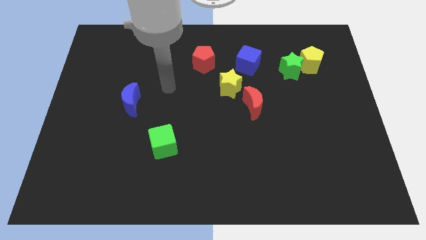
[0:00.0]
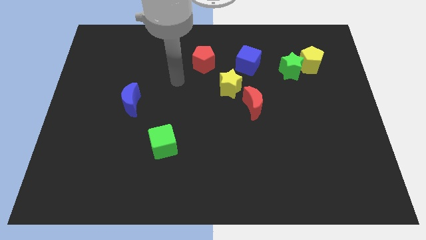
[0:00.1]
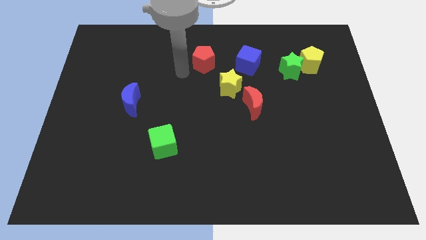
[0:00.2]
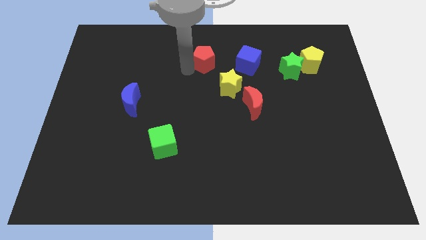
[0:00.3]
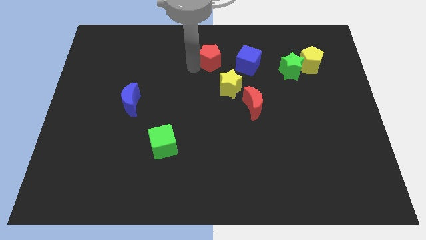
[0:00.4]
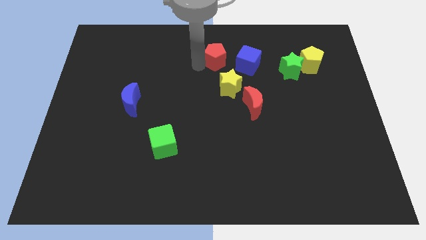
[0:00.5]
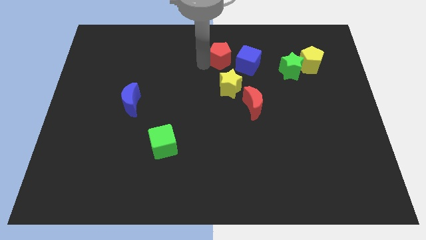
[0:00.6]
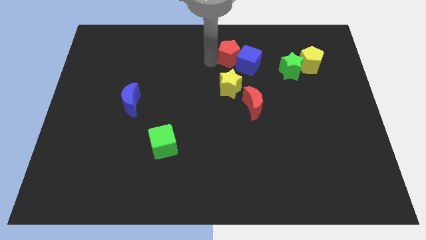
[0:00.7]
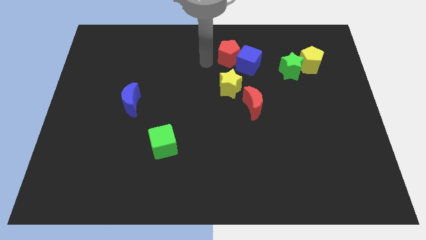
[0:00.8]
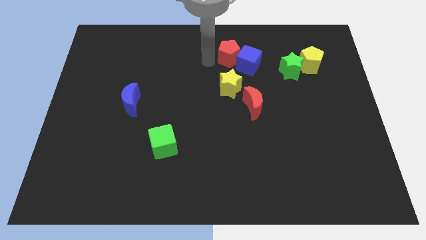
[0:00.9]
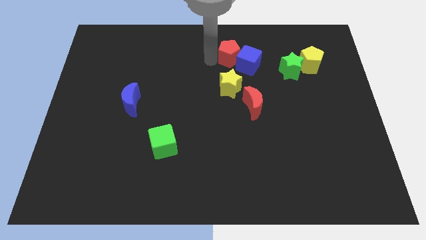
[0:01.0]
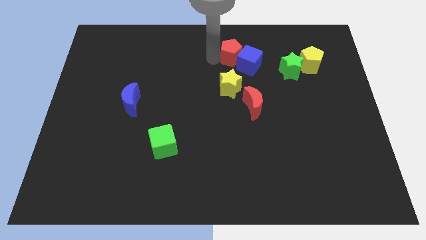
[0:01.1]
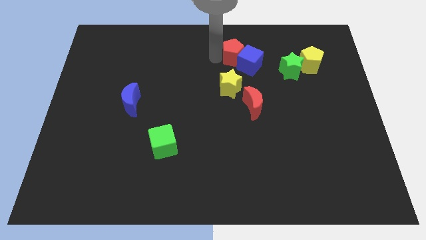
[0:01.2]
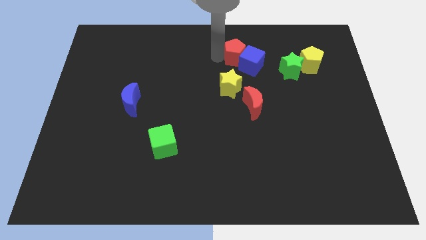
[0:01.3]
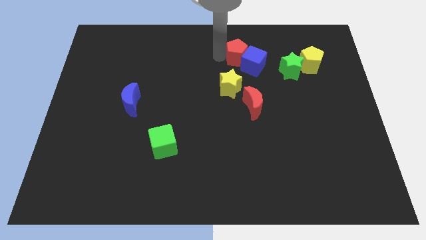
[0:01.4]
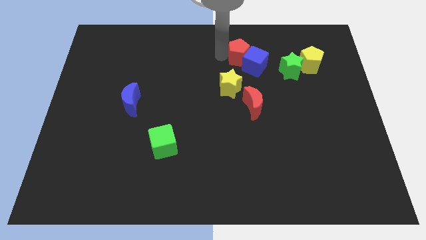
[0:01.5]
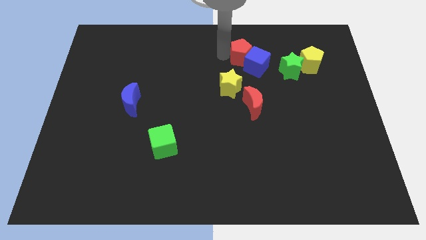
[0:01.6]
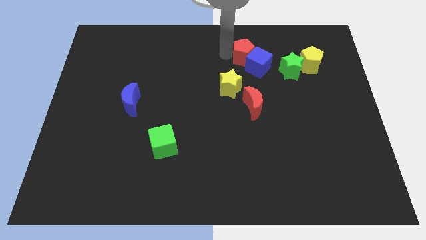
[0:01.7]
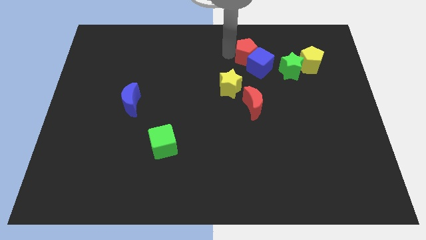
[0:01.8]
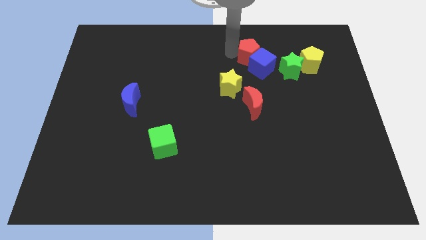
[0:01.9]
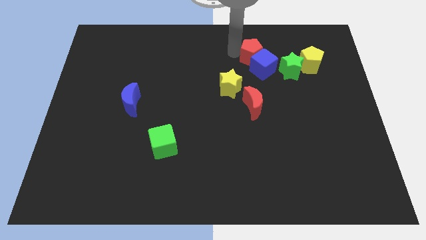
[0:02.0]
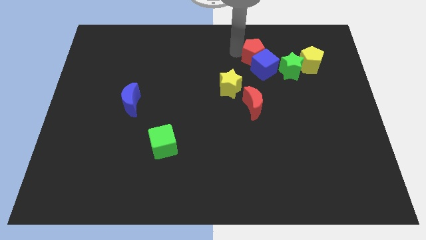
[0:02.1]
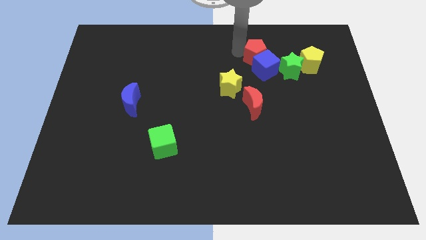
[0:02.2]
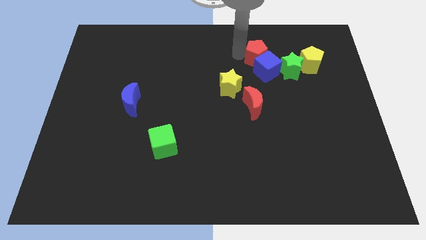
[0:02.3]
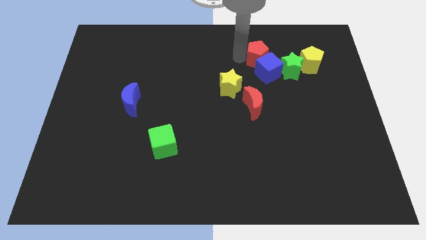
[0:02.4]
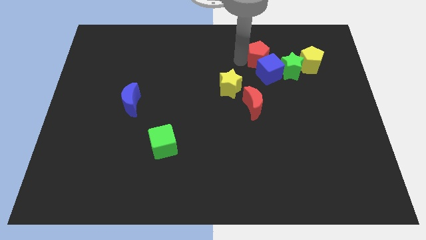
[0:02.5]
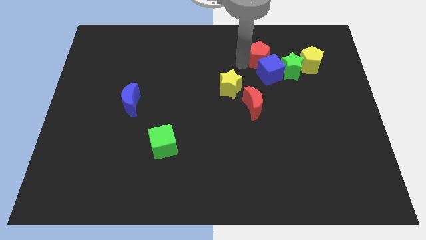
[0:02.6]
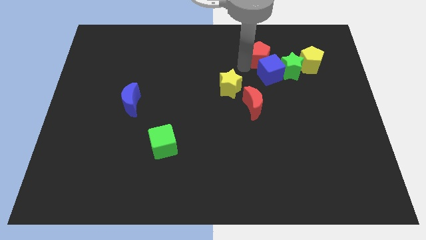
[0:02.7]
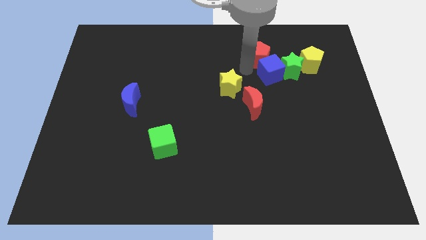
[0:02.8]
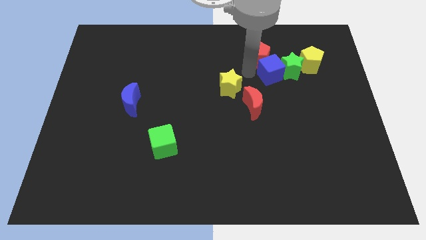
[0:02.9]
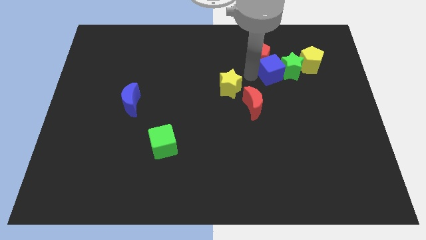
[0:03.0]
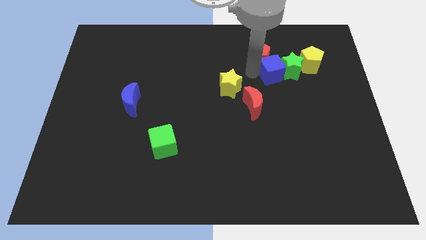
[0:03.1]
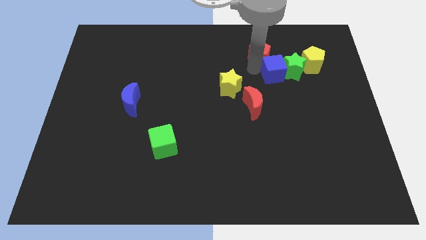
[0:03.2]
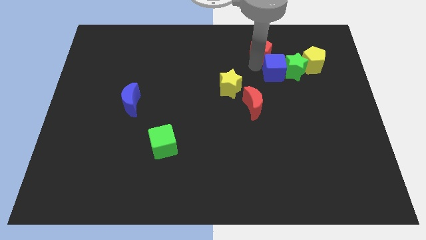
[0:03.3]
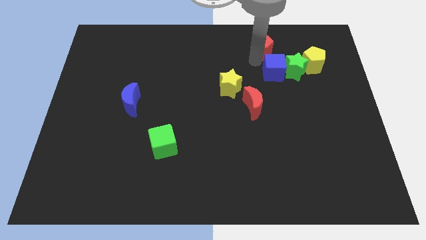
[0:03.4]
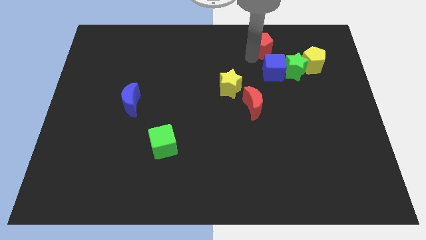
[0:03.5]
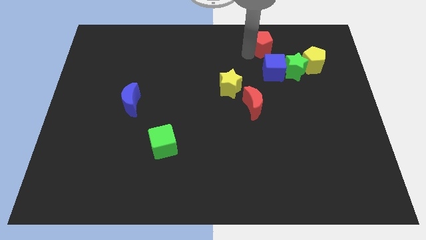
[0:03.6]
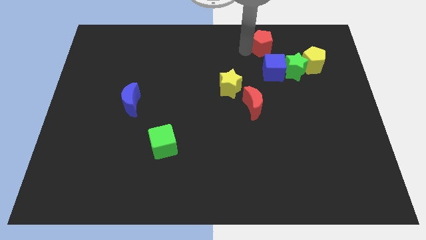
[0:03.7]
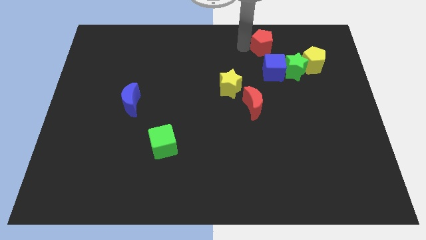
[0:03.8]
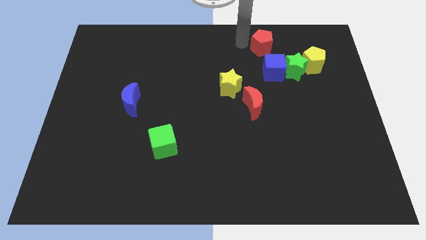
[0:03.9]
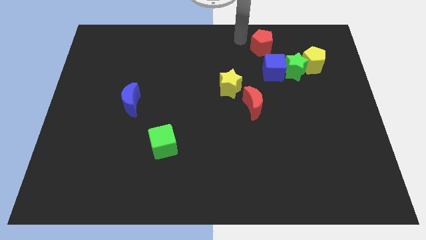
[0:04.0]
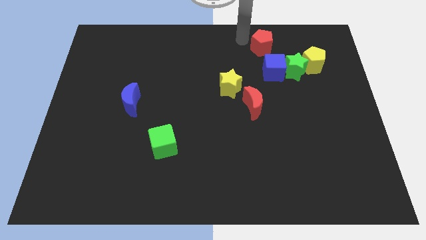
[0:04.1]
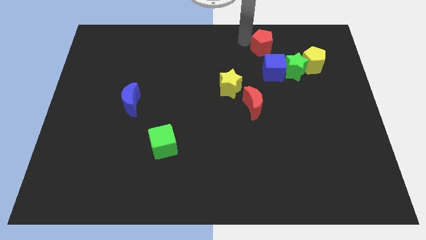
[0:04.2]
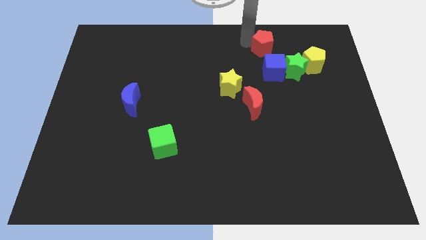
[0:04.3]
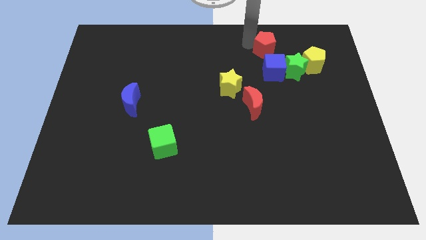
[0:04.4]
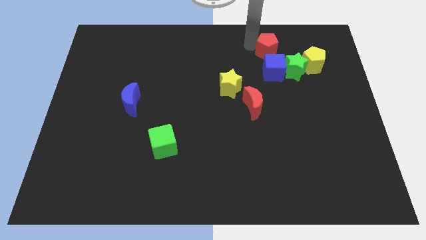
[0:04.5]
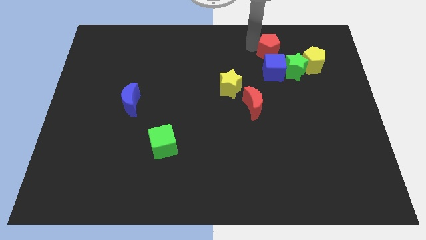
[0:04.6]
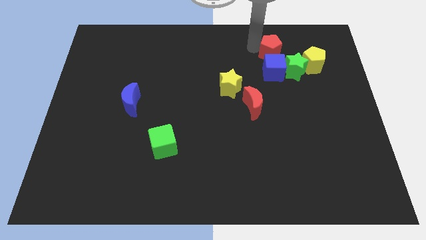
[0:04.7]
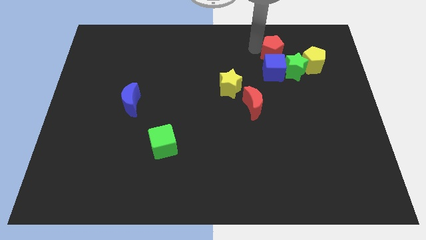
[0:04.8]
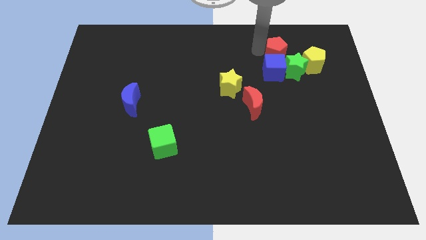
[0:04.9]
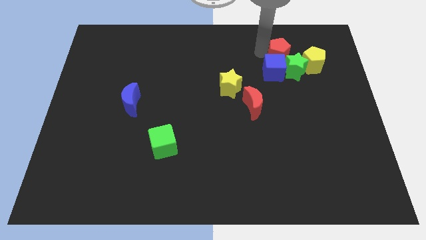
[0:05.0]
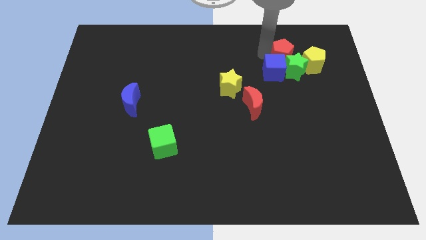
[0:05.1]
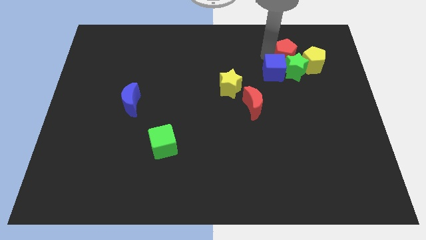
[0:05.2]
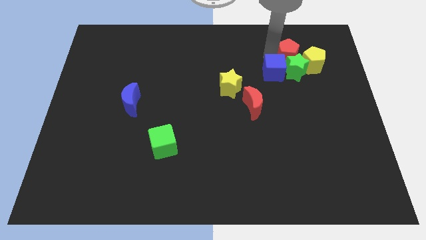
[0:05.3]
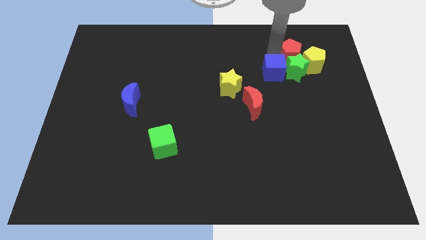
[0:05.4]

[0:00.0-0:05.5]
slide the red pentagon towards the yellow pentagon

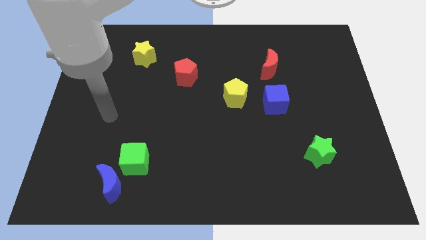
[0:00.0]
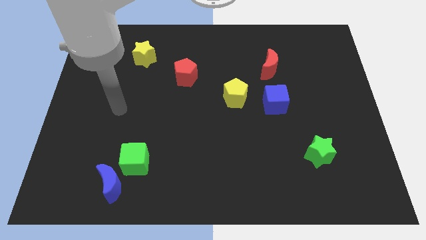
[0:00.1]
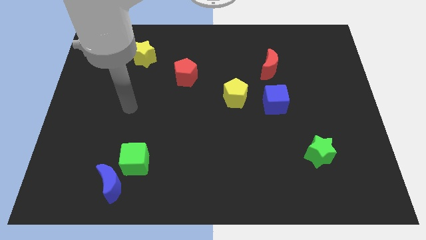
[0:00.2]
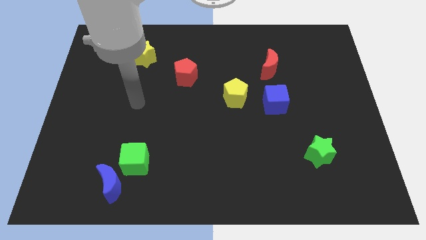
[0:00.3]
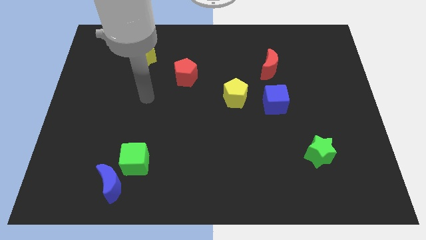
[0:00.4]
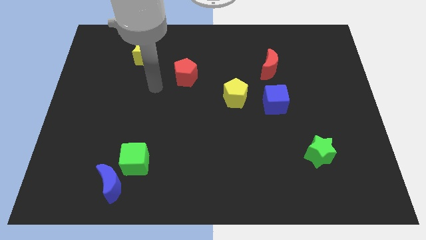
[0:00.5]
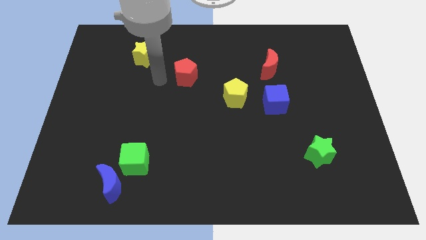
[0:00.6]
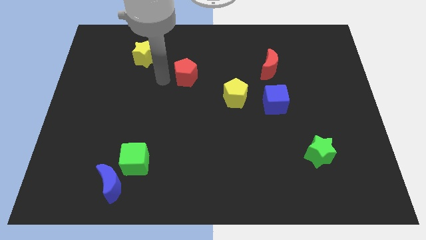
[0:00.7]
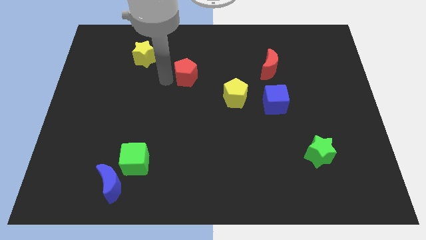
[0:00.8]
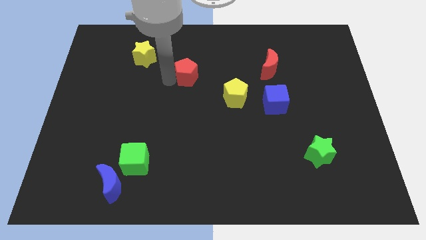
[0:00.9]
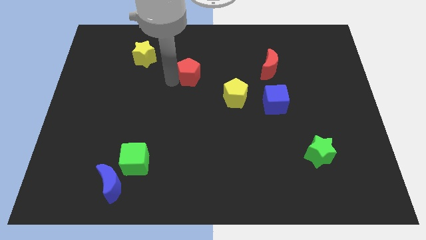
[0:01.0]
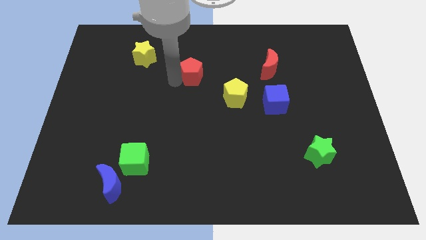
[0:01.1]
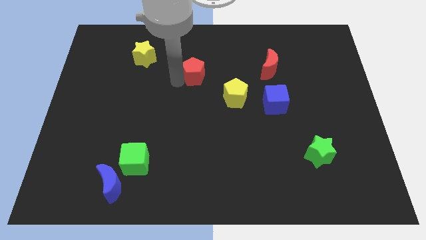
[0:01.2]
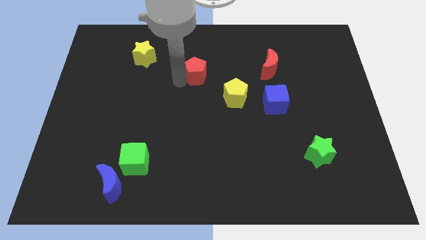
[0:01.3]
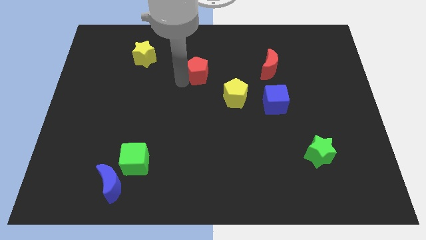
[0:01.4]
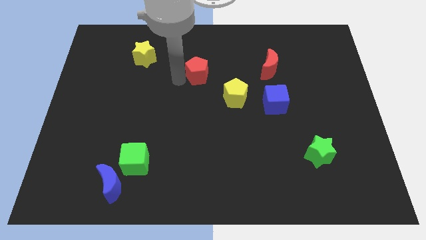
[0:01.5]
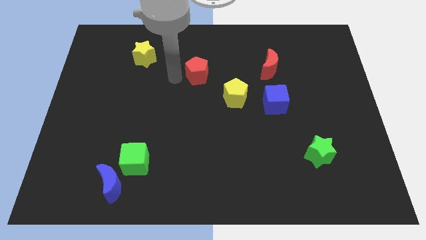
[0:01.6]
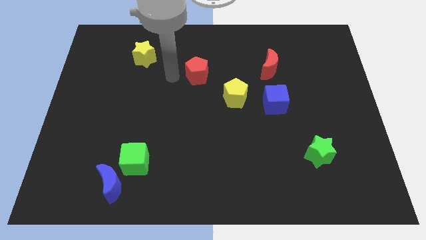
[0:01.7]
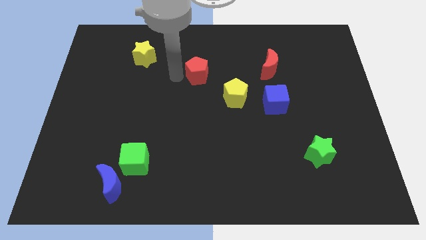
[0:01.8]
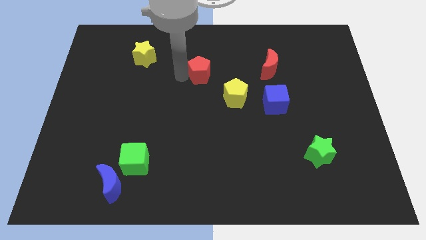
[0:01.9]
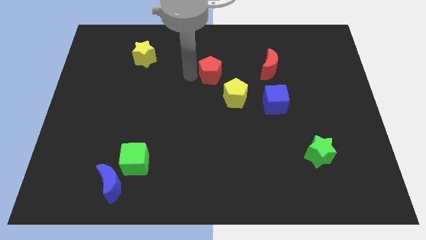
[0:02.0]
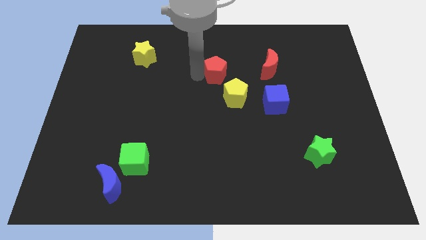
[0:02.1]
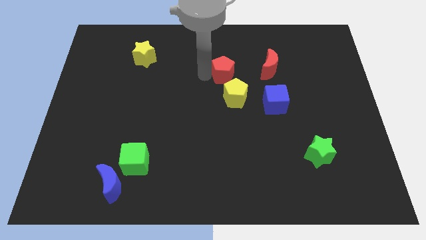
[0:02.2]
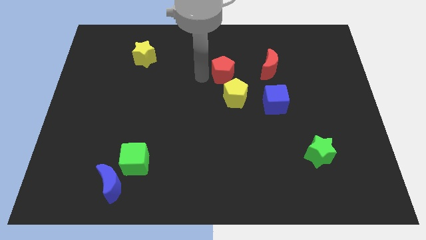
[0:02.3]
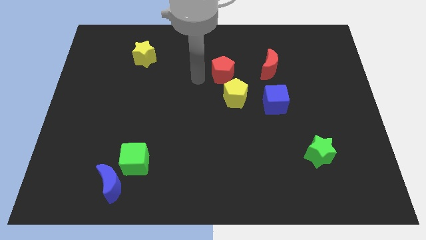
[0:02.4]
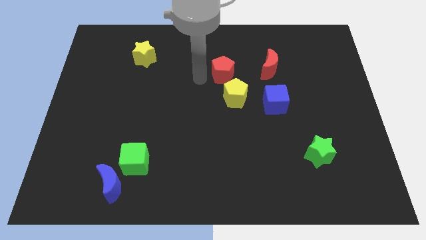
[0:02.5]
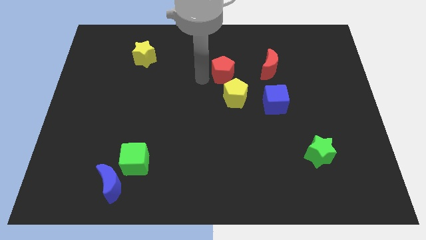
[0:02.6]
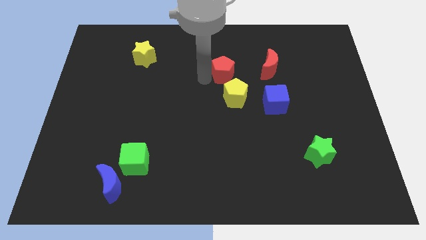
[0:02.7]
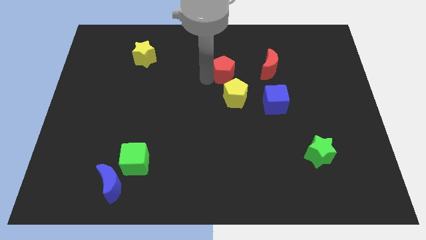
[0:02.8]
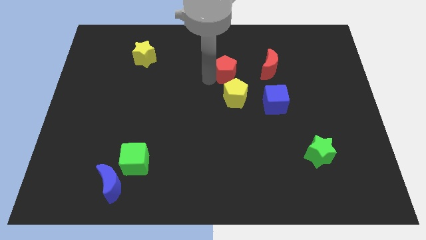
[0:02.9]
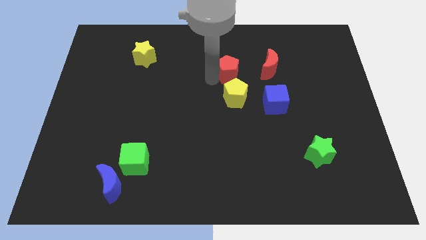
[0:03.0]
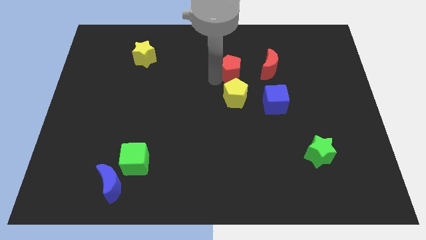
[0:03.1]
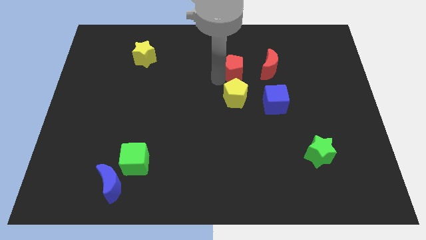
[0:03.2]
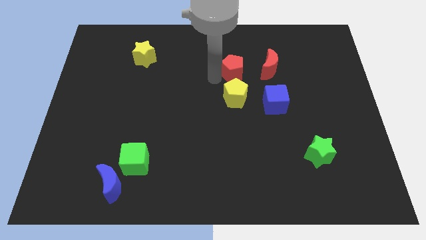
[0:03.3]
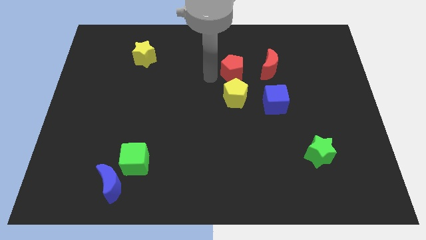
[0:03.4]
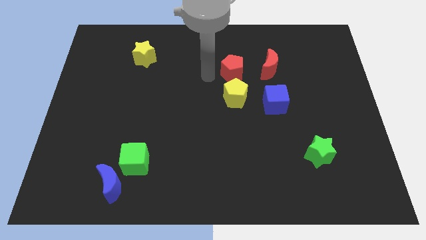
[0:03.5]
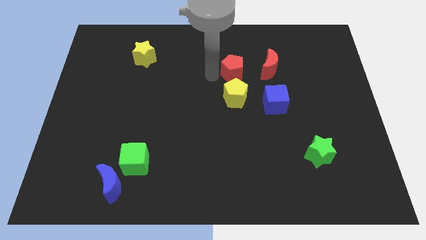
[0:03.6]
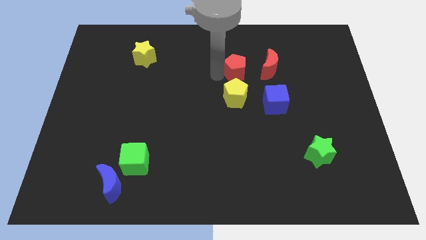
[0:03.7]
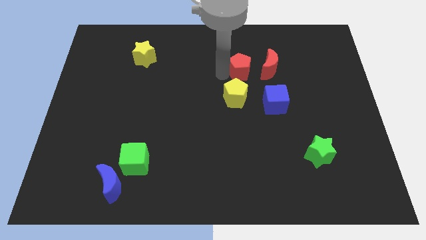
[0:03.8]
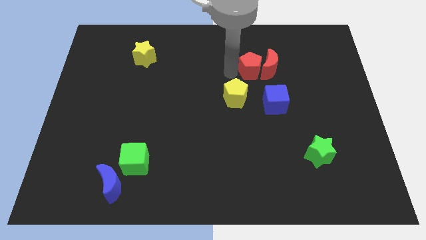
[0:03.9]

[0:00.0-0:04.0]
put the red pentagon close to the red moon
